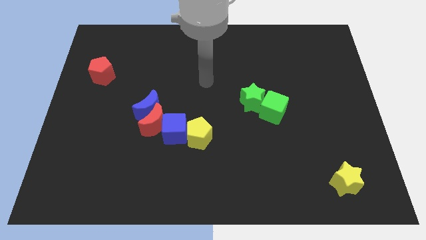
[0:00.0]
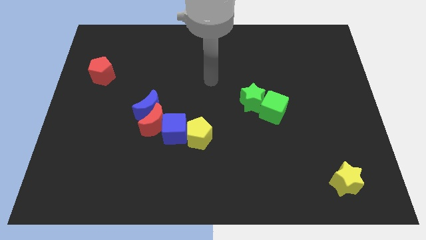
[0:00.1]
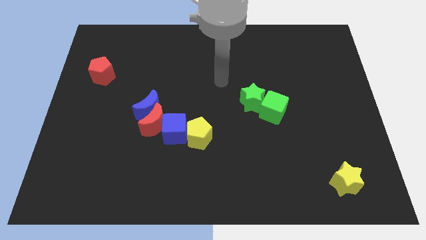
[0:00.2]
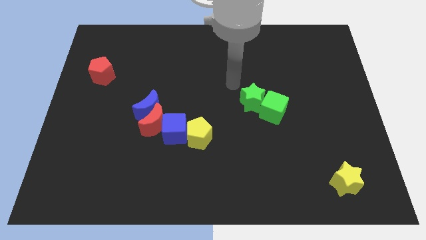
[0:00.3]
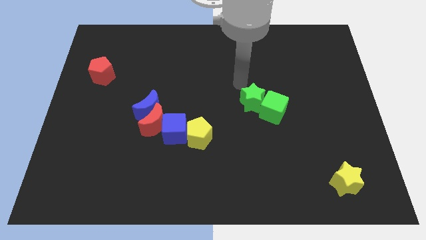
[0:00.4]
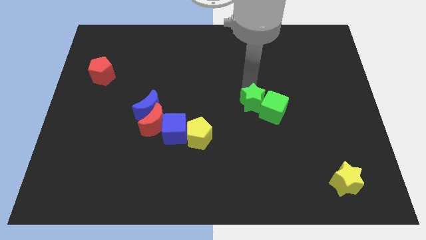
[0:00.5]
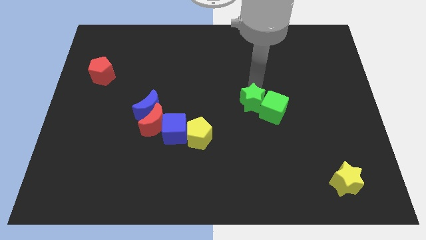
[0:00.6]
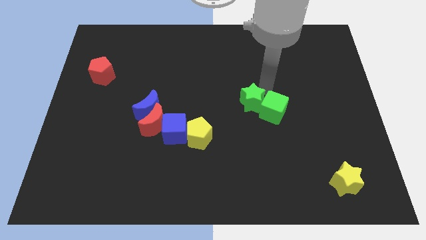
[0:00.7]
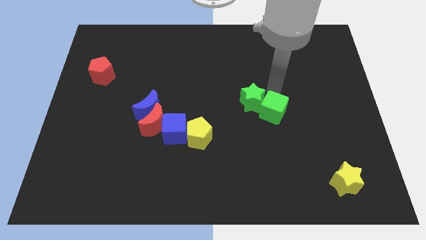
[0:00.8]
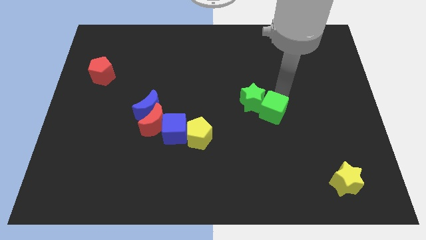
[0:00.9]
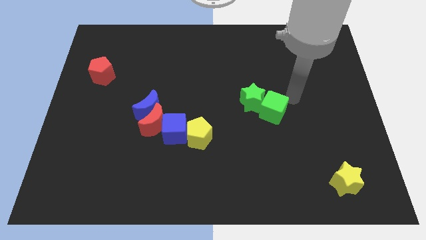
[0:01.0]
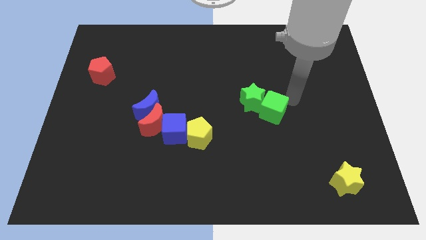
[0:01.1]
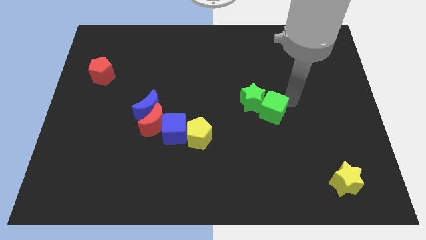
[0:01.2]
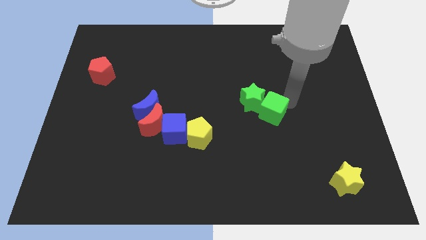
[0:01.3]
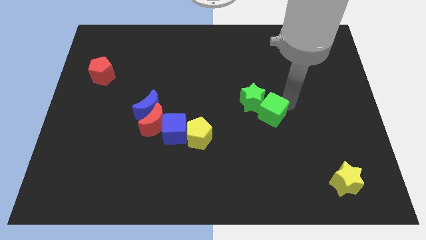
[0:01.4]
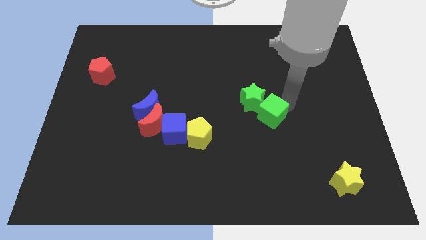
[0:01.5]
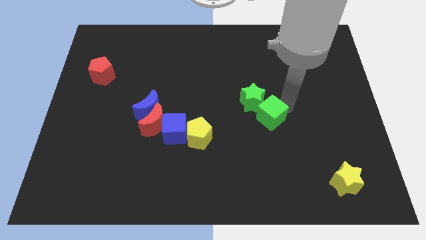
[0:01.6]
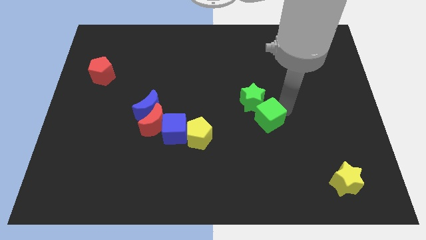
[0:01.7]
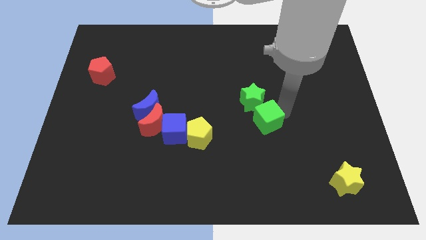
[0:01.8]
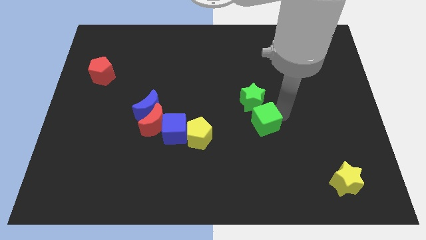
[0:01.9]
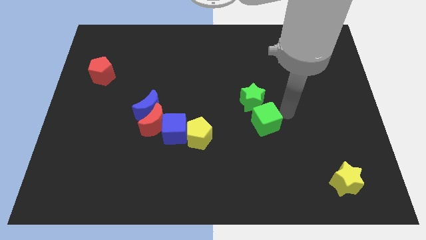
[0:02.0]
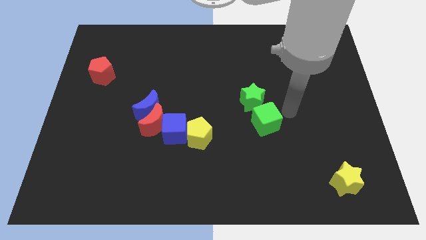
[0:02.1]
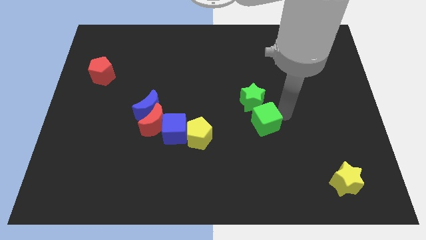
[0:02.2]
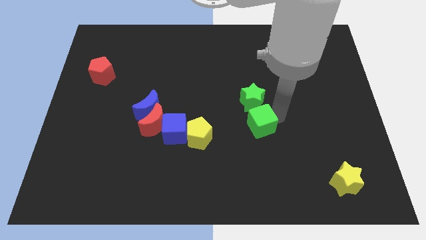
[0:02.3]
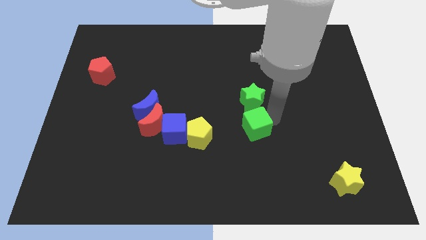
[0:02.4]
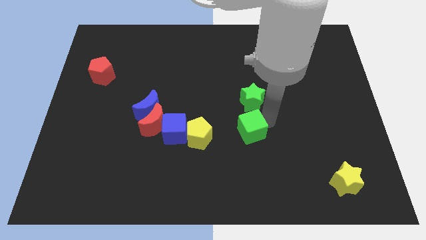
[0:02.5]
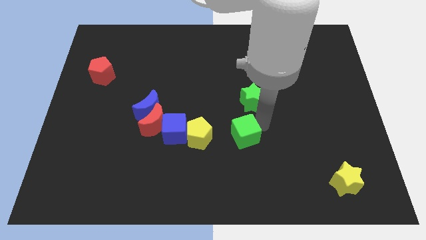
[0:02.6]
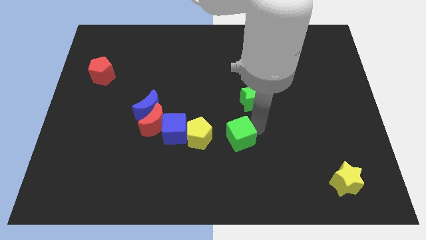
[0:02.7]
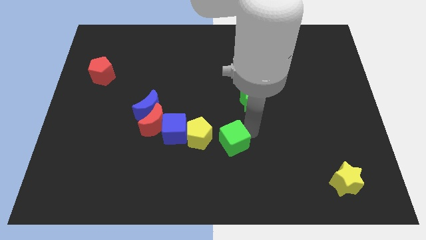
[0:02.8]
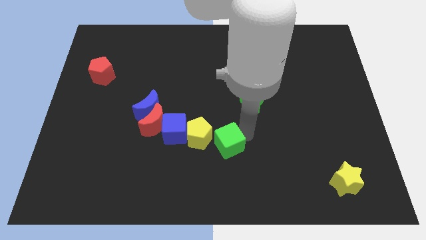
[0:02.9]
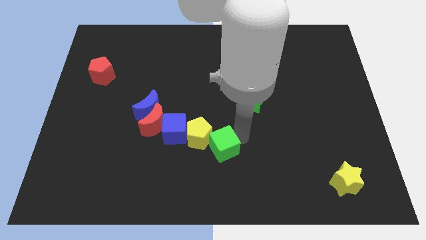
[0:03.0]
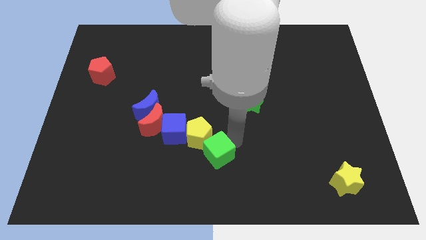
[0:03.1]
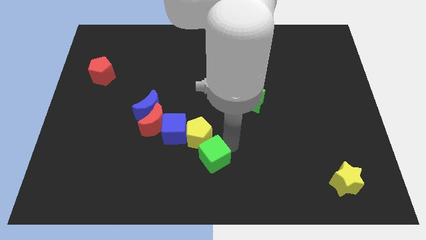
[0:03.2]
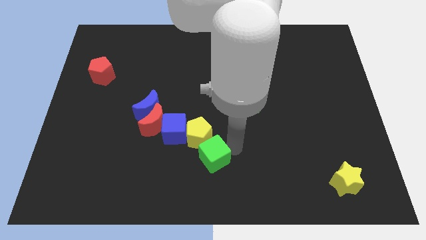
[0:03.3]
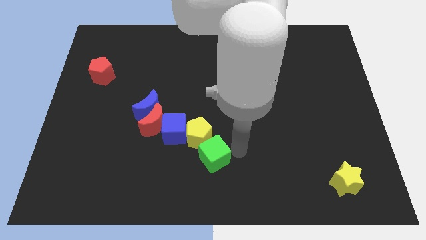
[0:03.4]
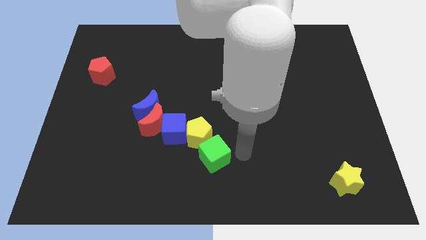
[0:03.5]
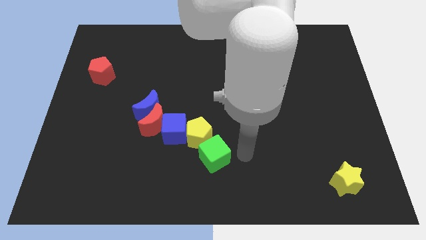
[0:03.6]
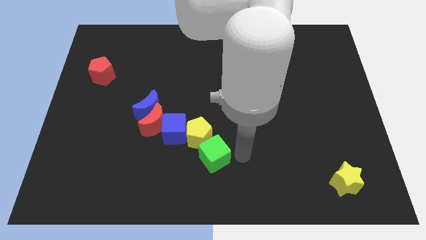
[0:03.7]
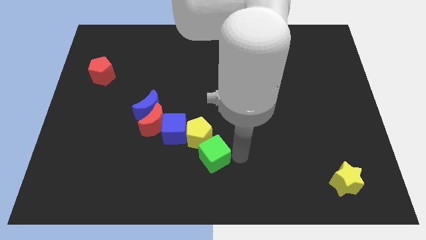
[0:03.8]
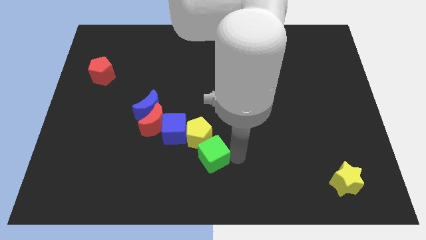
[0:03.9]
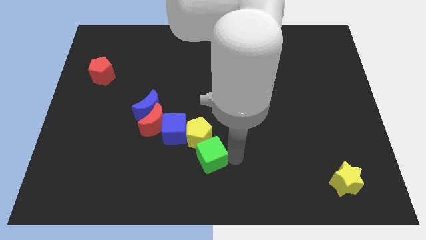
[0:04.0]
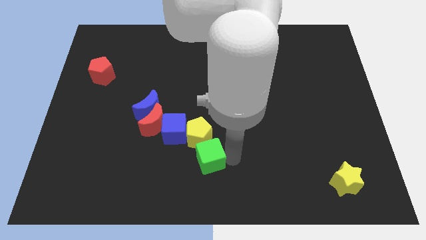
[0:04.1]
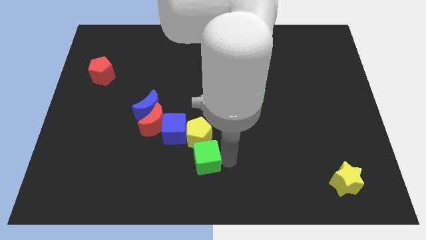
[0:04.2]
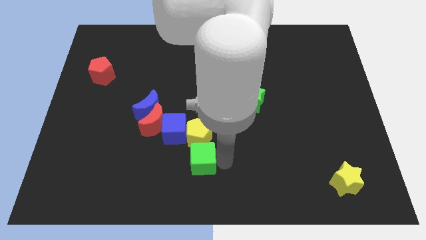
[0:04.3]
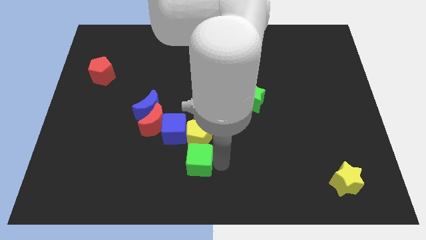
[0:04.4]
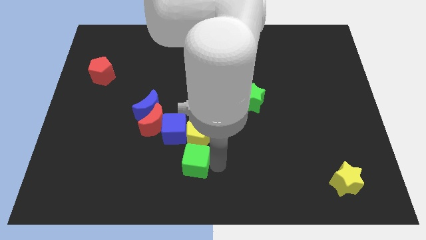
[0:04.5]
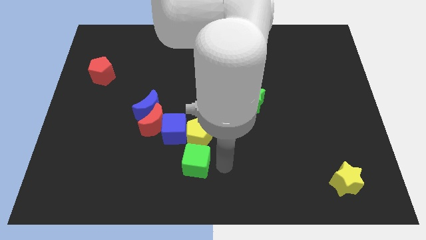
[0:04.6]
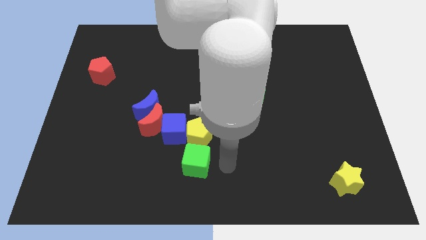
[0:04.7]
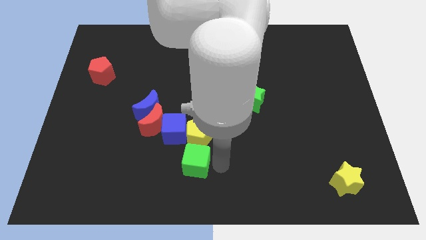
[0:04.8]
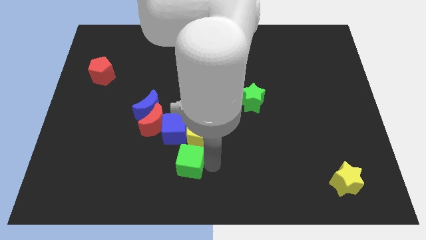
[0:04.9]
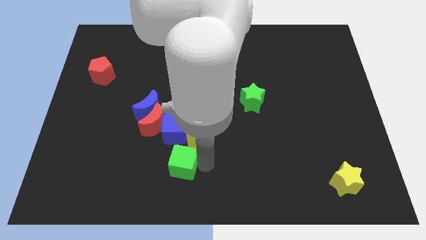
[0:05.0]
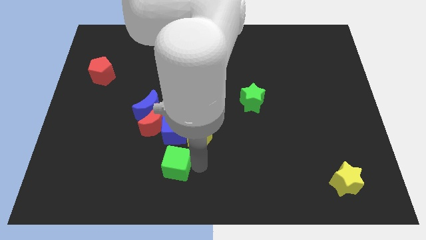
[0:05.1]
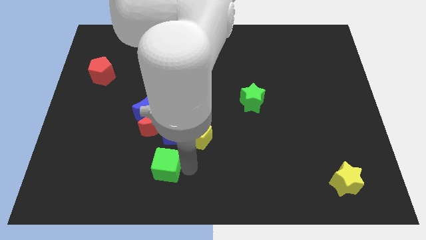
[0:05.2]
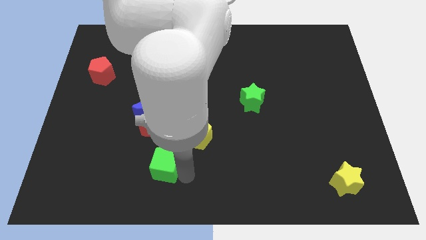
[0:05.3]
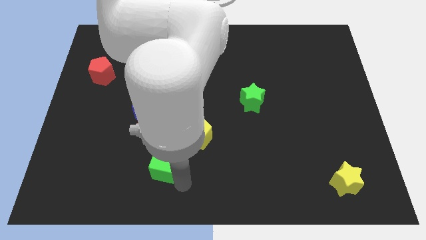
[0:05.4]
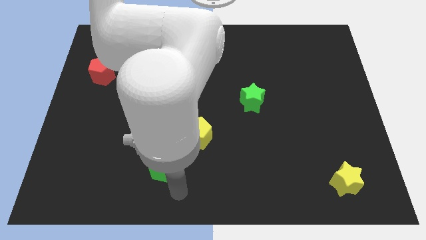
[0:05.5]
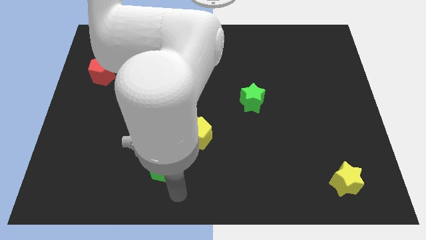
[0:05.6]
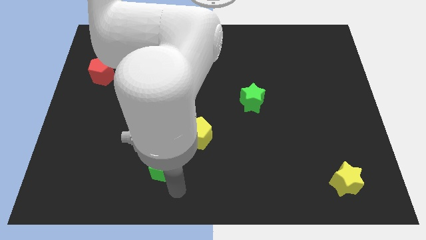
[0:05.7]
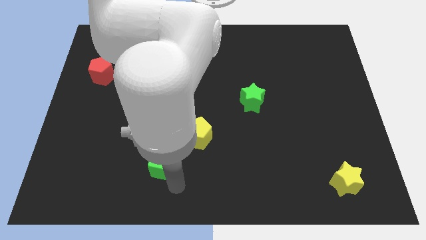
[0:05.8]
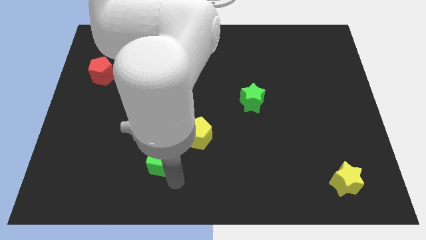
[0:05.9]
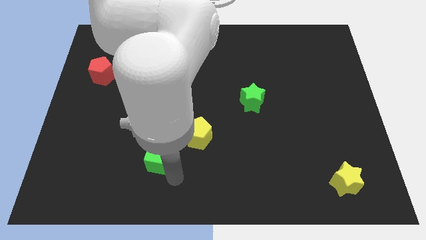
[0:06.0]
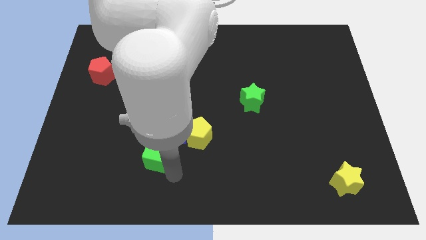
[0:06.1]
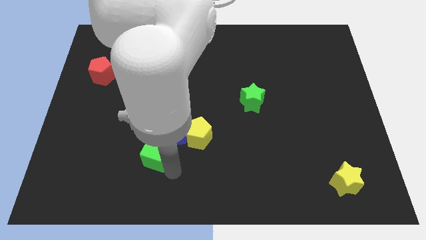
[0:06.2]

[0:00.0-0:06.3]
slide the green cube left of the yellow pentagon
